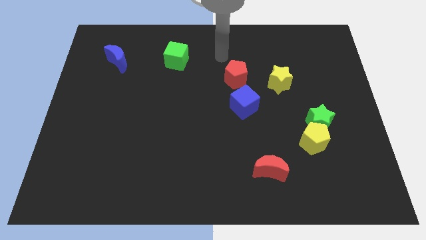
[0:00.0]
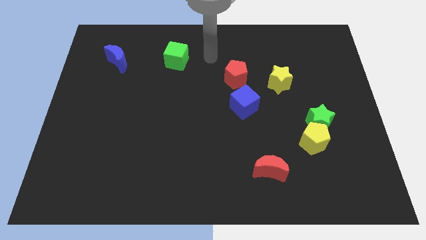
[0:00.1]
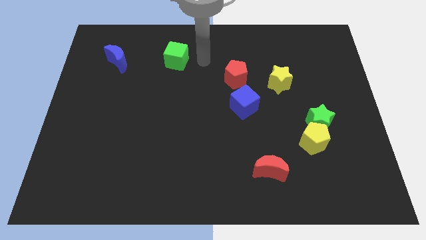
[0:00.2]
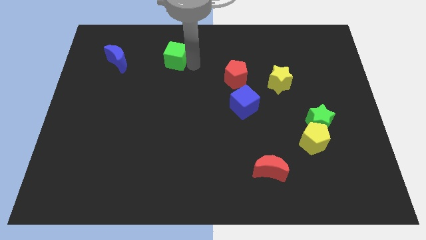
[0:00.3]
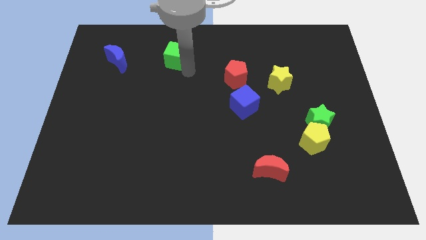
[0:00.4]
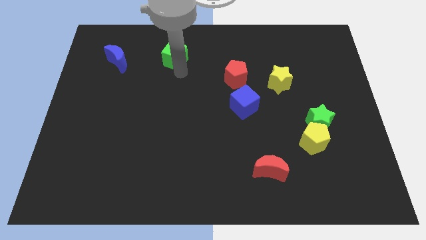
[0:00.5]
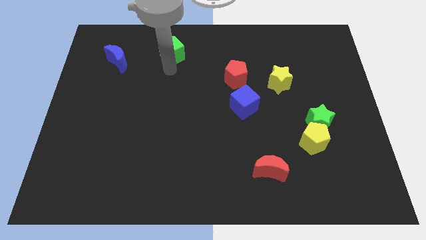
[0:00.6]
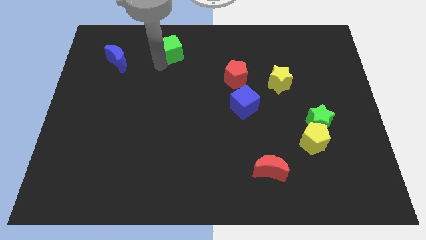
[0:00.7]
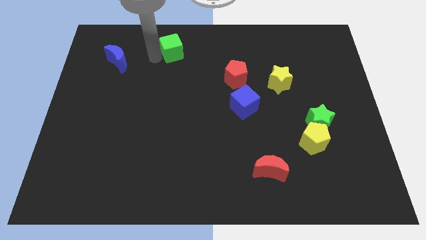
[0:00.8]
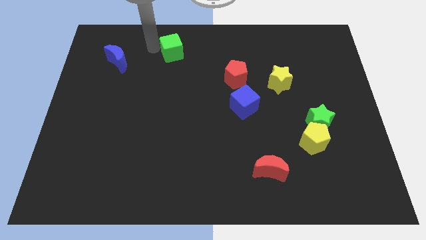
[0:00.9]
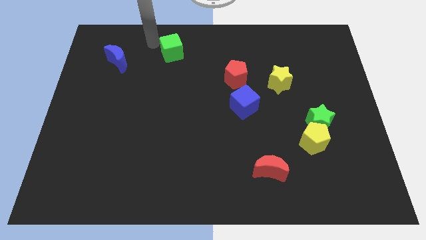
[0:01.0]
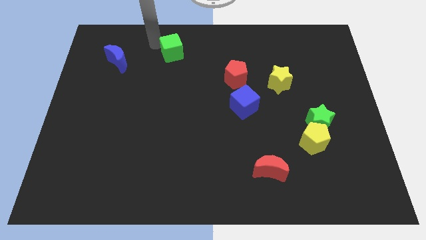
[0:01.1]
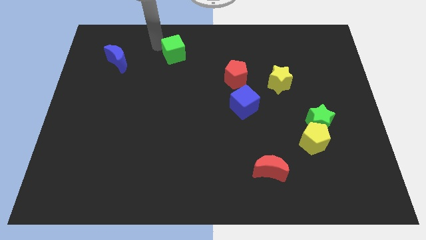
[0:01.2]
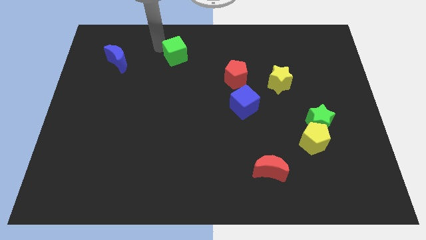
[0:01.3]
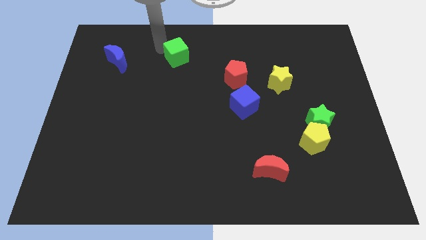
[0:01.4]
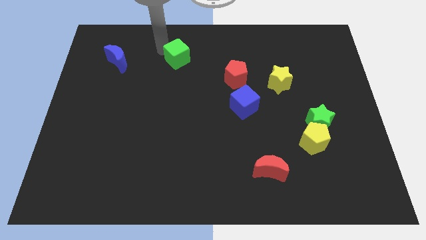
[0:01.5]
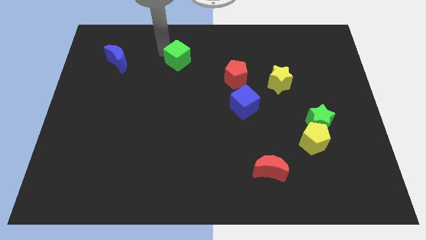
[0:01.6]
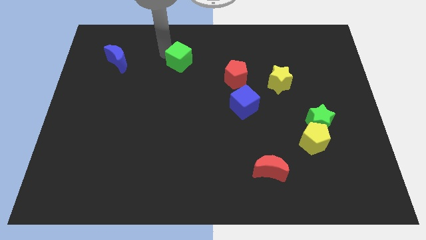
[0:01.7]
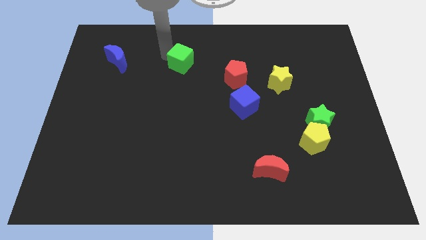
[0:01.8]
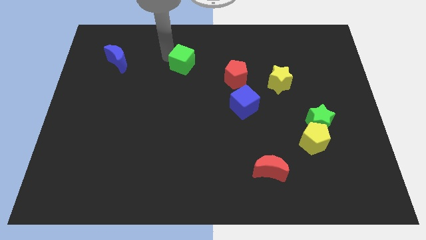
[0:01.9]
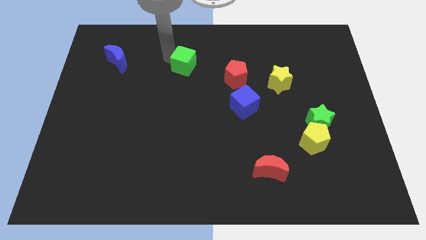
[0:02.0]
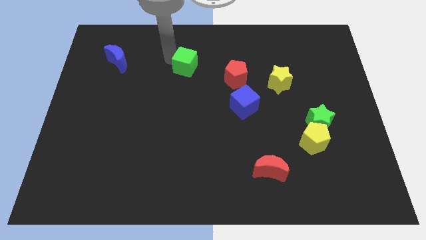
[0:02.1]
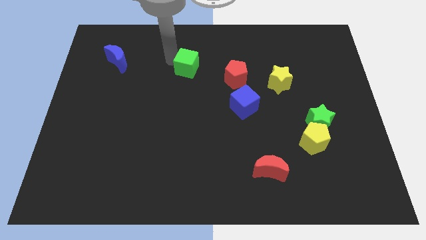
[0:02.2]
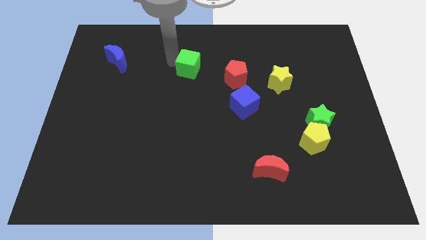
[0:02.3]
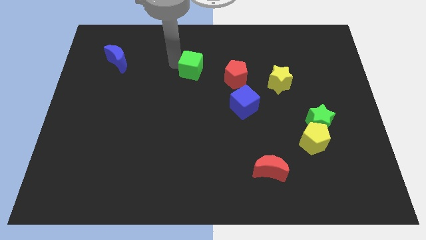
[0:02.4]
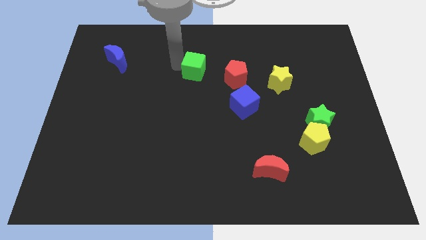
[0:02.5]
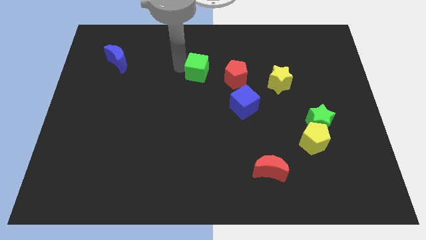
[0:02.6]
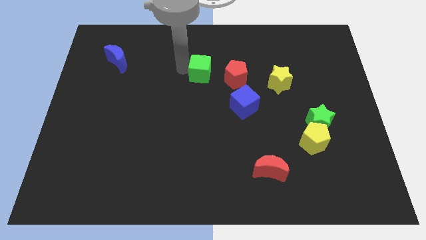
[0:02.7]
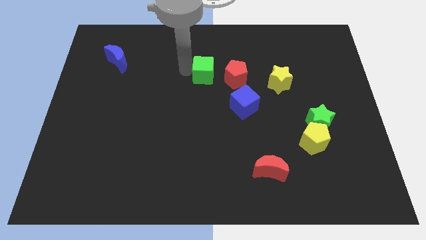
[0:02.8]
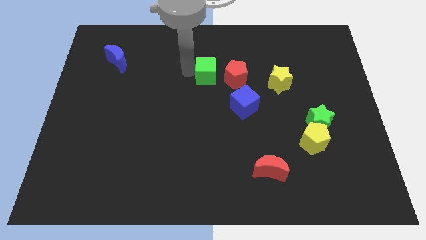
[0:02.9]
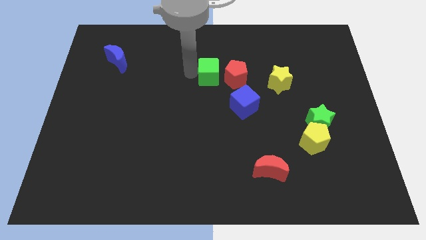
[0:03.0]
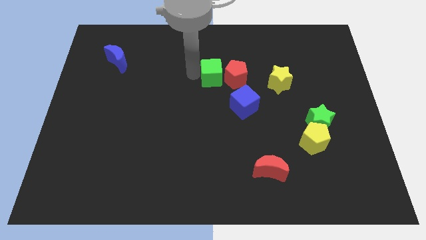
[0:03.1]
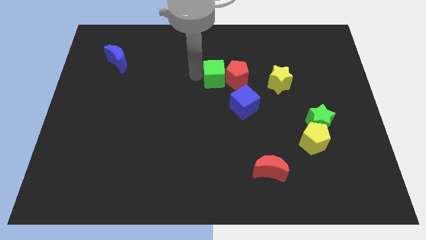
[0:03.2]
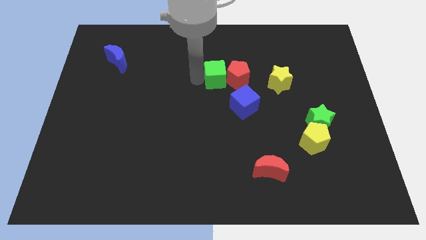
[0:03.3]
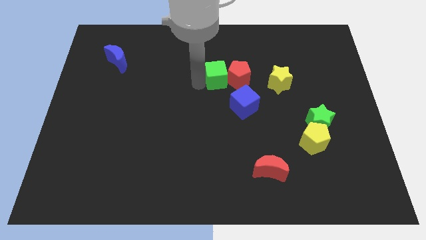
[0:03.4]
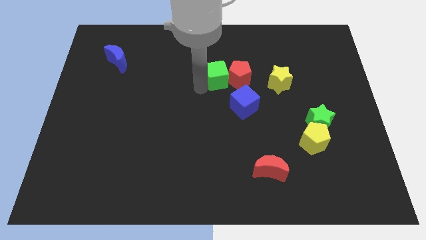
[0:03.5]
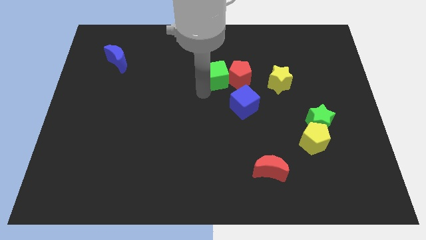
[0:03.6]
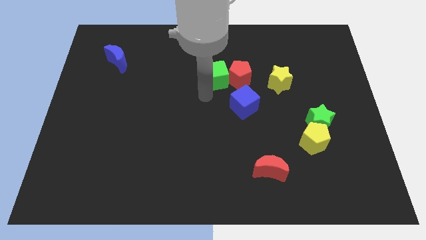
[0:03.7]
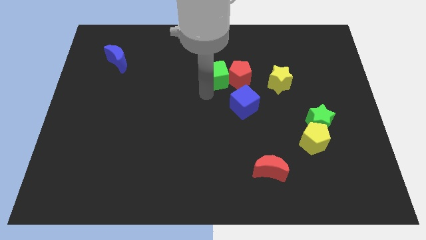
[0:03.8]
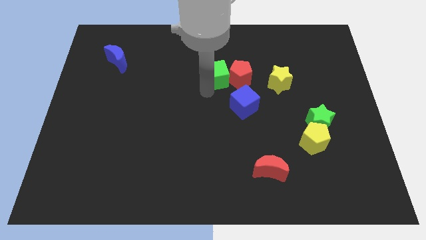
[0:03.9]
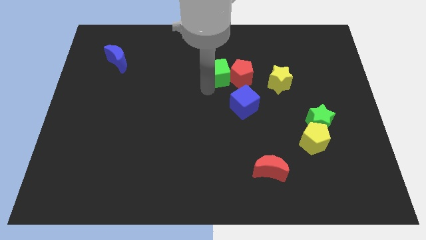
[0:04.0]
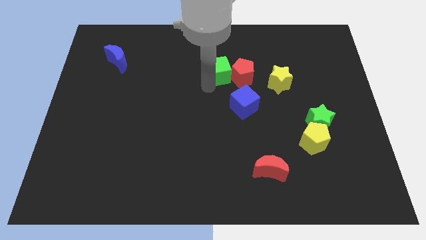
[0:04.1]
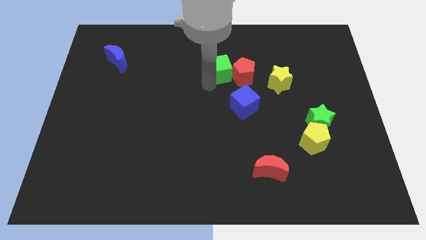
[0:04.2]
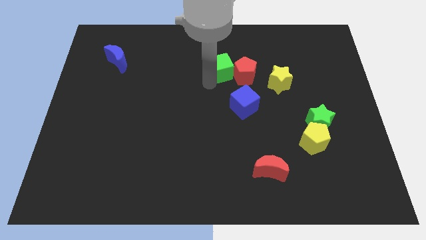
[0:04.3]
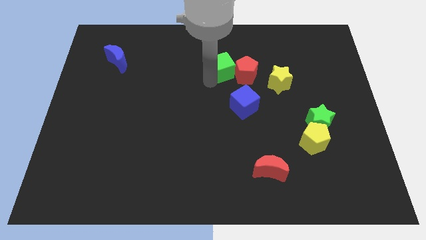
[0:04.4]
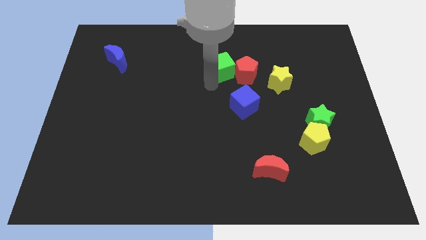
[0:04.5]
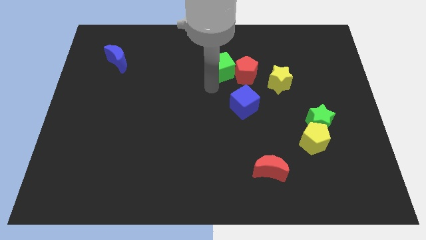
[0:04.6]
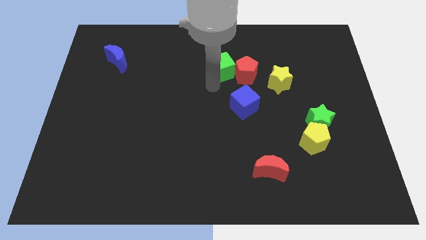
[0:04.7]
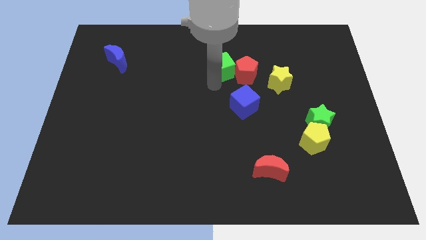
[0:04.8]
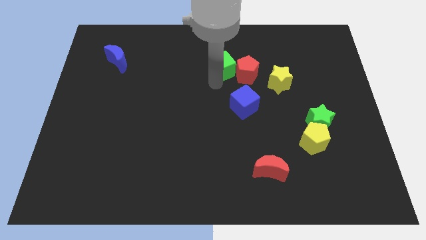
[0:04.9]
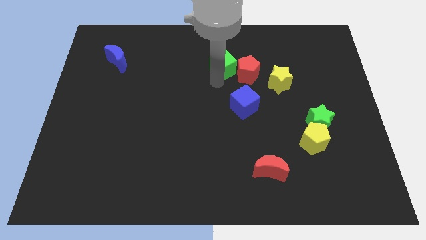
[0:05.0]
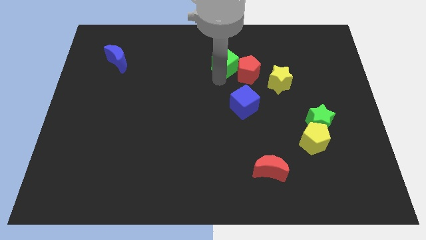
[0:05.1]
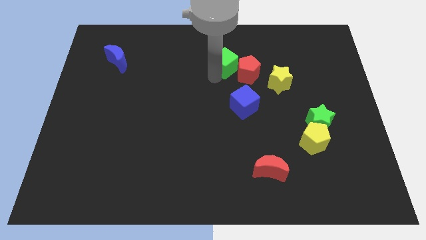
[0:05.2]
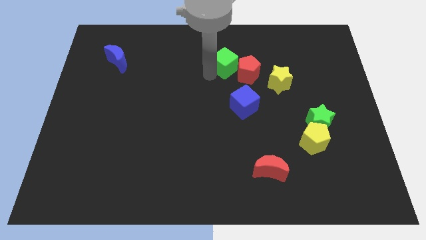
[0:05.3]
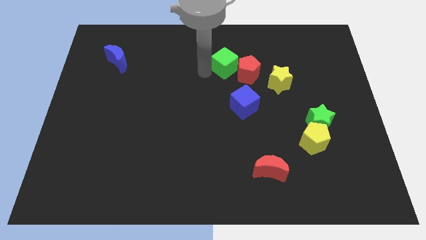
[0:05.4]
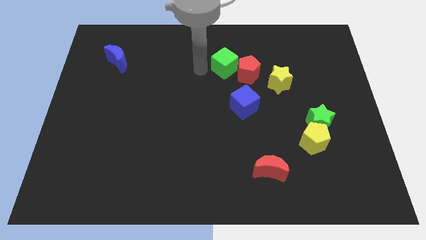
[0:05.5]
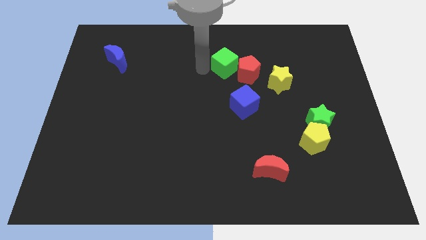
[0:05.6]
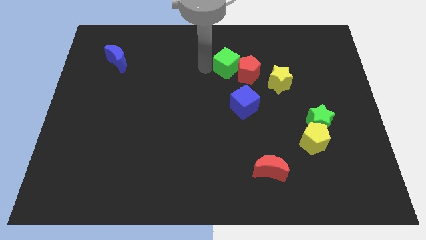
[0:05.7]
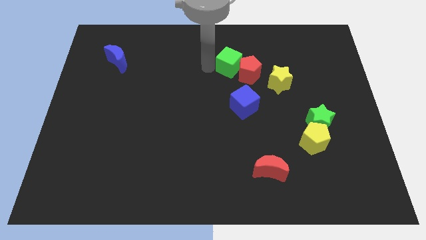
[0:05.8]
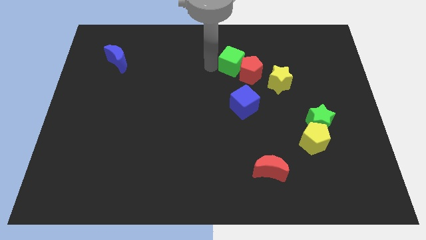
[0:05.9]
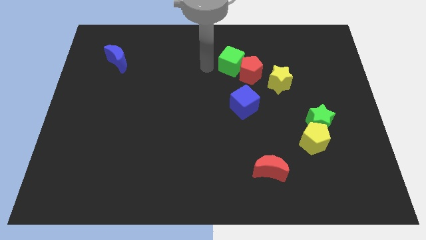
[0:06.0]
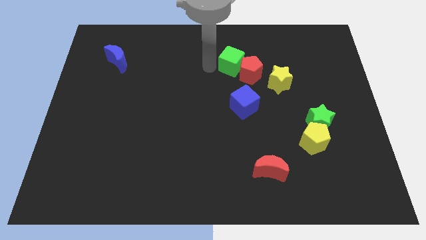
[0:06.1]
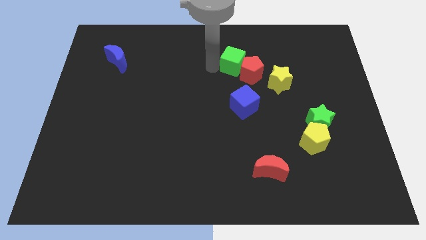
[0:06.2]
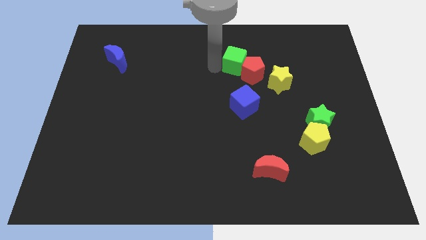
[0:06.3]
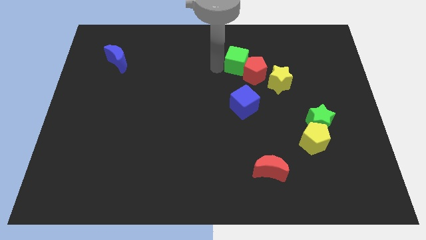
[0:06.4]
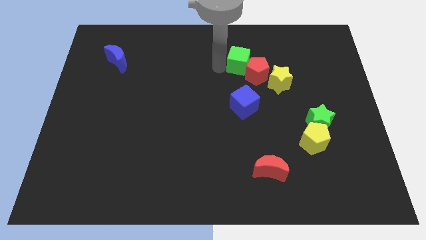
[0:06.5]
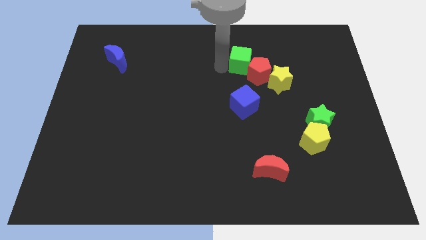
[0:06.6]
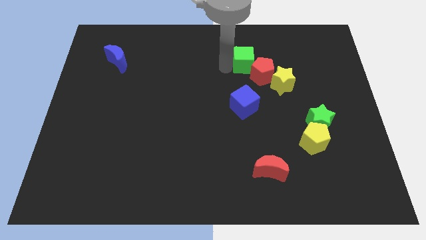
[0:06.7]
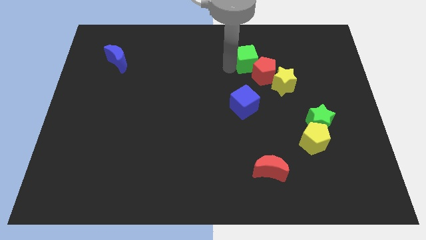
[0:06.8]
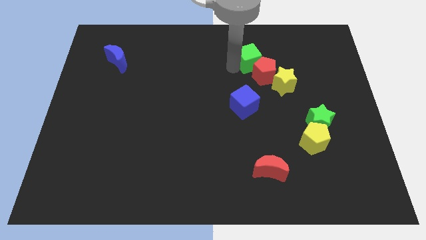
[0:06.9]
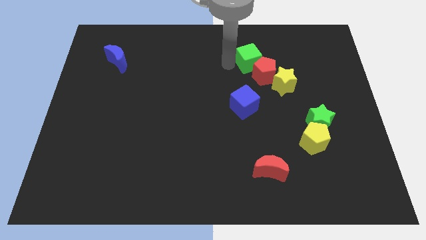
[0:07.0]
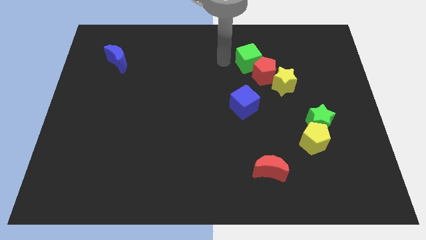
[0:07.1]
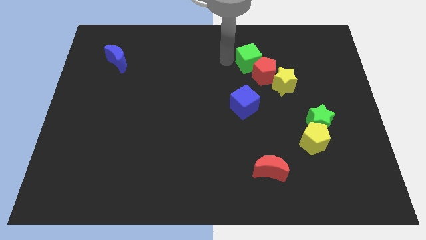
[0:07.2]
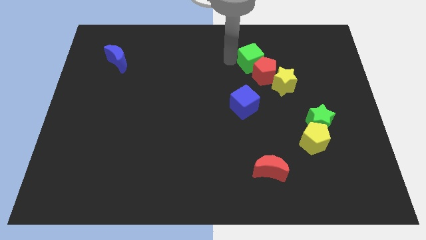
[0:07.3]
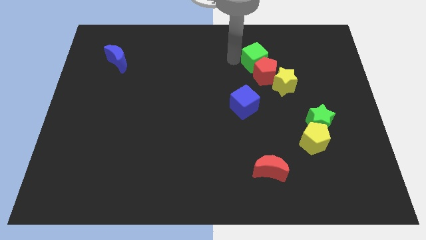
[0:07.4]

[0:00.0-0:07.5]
slide the green cube right

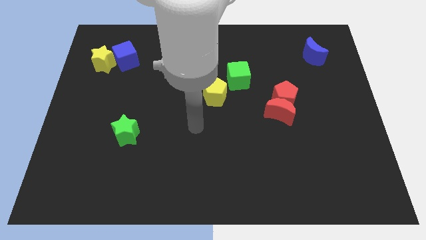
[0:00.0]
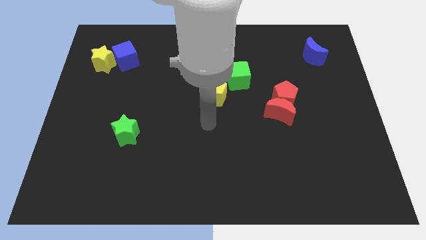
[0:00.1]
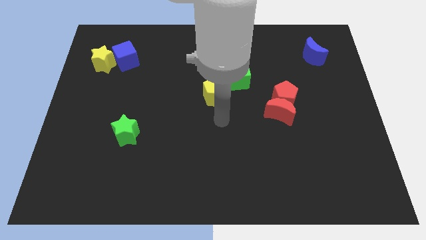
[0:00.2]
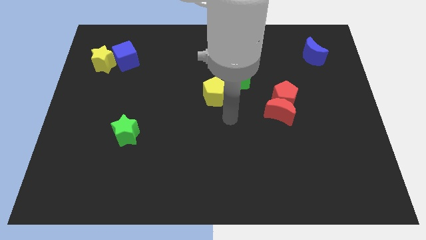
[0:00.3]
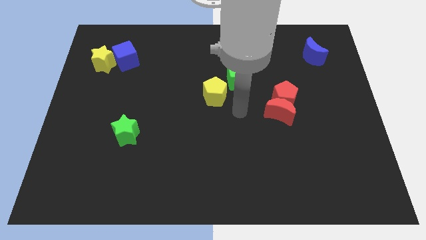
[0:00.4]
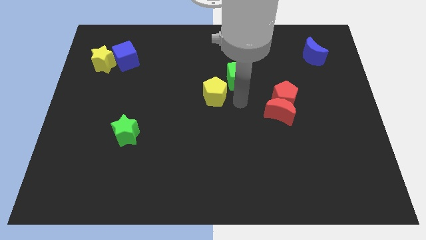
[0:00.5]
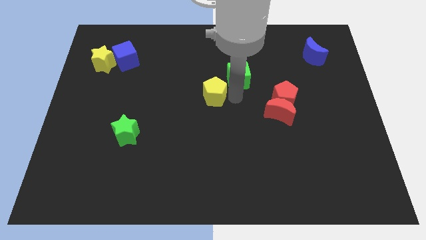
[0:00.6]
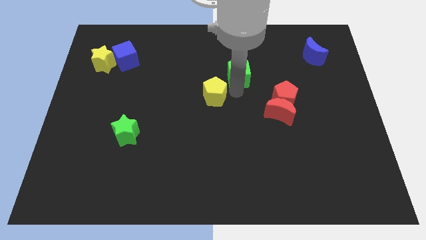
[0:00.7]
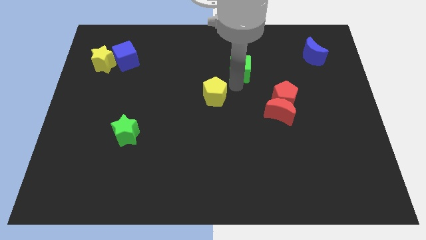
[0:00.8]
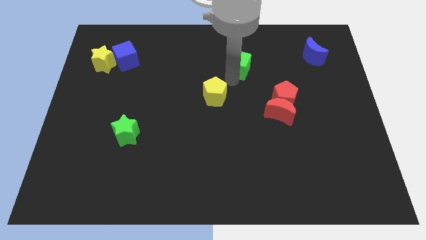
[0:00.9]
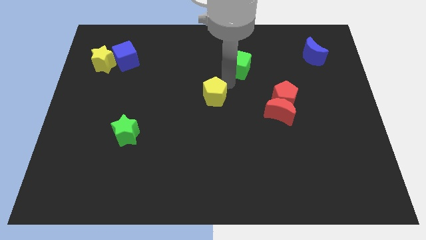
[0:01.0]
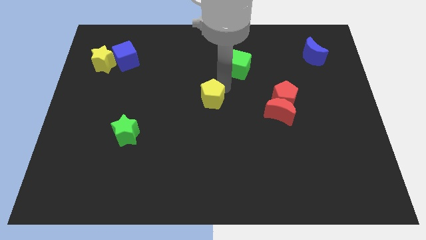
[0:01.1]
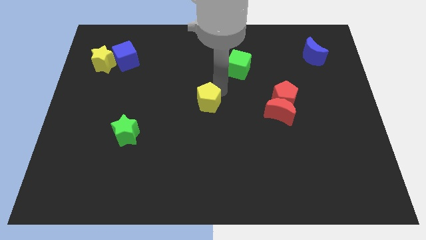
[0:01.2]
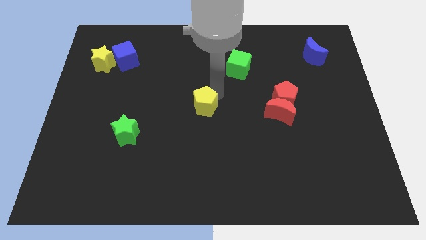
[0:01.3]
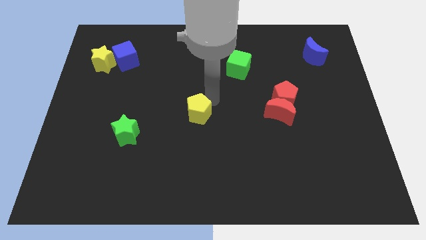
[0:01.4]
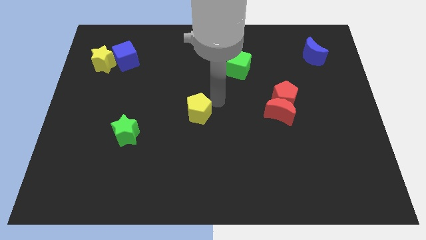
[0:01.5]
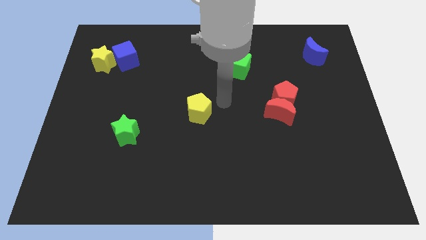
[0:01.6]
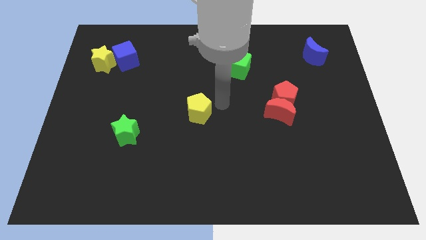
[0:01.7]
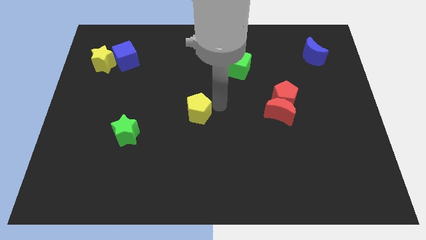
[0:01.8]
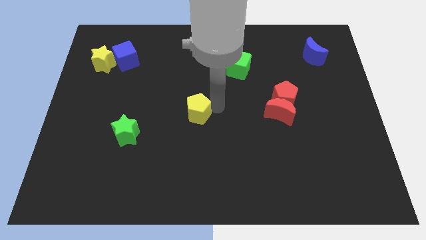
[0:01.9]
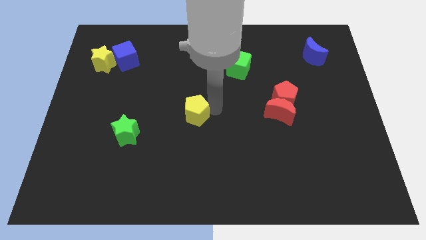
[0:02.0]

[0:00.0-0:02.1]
slightly move the yellow pentagon diagonally downwards and to the left
